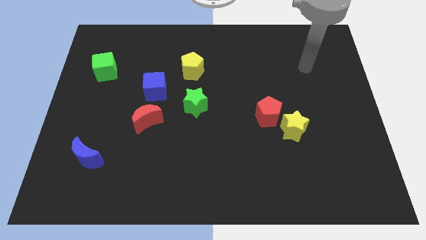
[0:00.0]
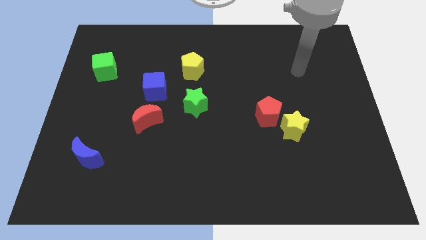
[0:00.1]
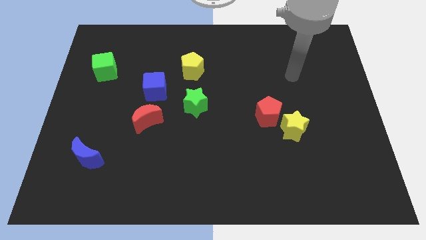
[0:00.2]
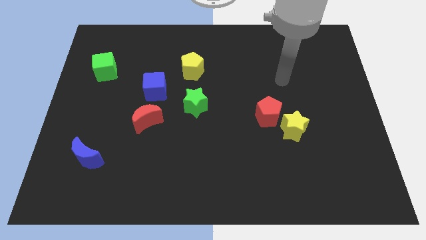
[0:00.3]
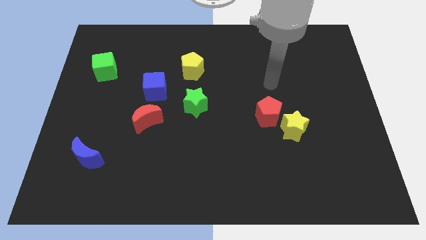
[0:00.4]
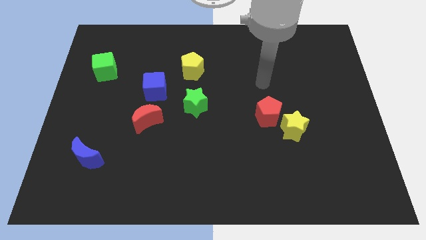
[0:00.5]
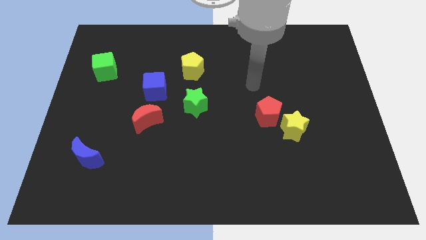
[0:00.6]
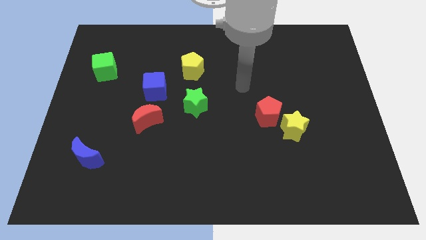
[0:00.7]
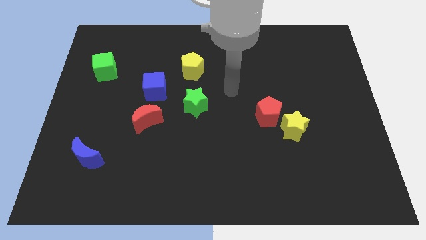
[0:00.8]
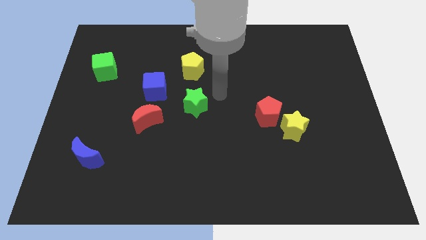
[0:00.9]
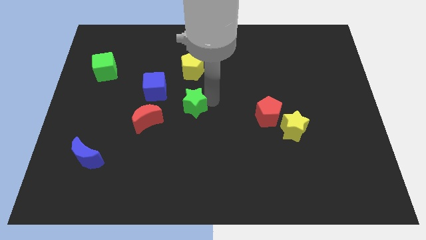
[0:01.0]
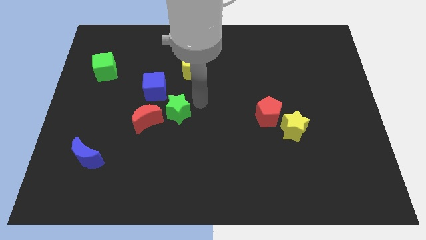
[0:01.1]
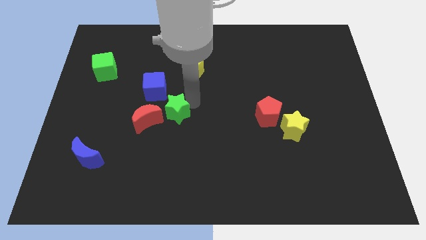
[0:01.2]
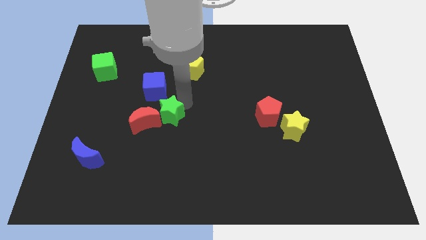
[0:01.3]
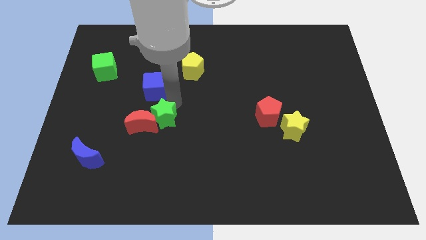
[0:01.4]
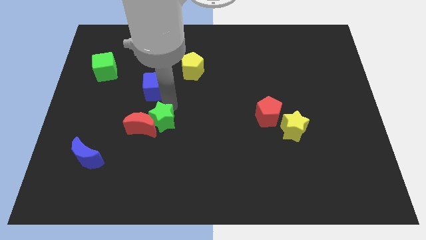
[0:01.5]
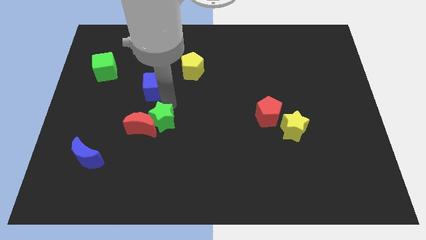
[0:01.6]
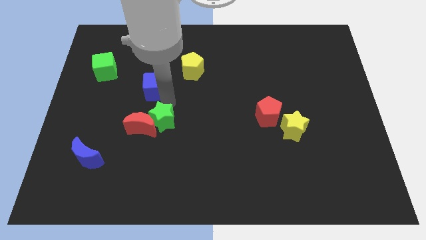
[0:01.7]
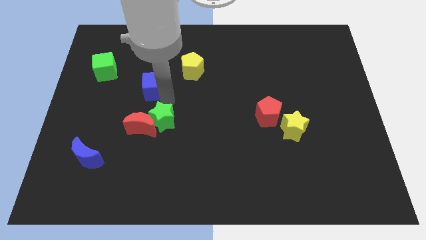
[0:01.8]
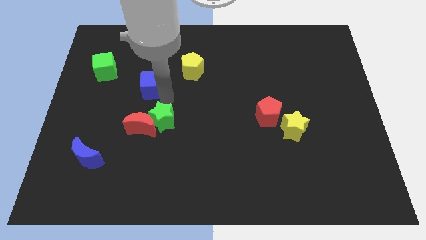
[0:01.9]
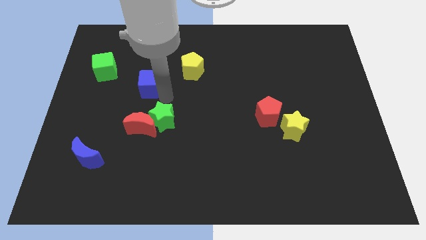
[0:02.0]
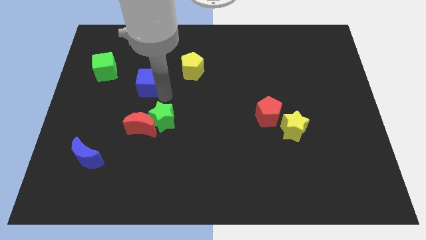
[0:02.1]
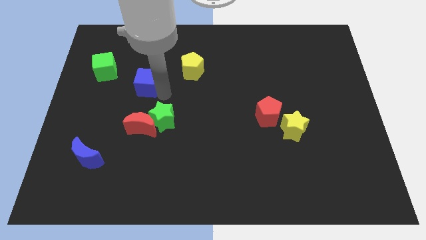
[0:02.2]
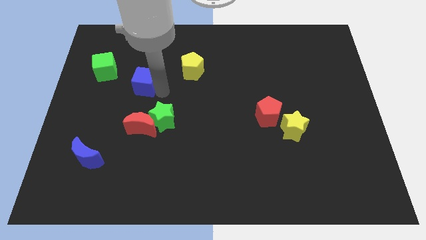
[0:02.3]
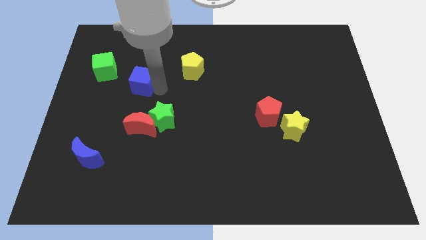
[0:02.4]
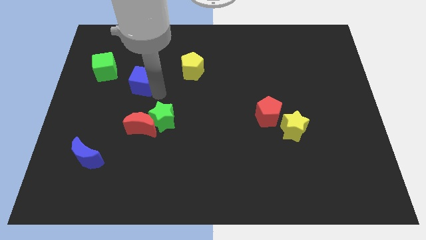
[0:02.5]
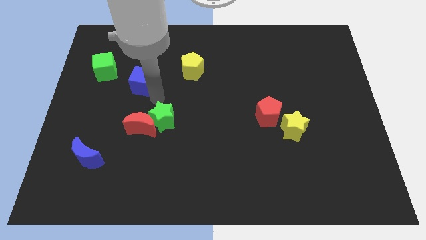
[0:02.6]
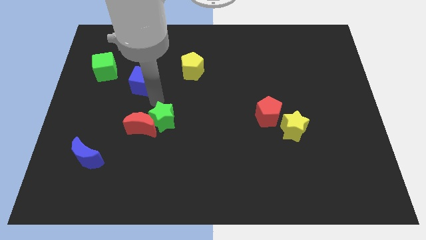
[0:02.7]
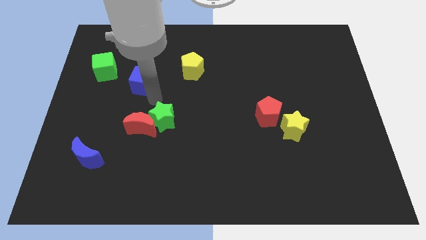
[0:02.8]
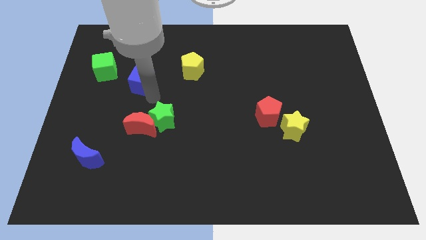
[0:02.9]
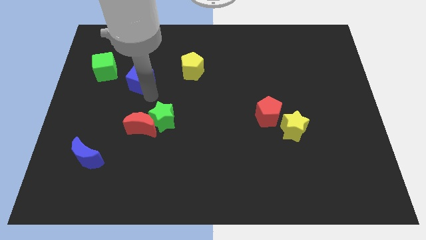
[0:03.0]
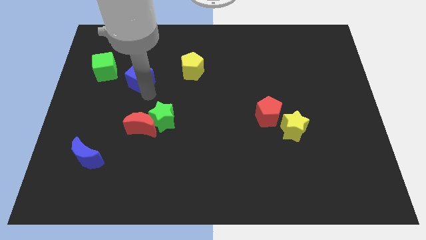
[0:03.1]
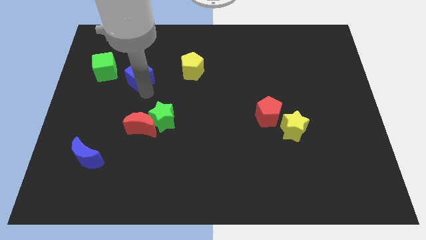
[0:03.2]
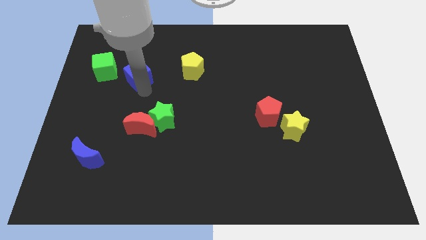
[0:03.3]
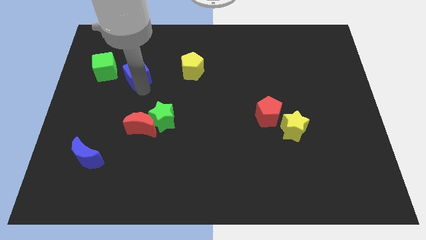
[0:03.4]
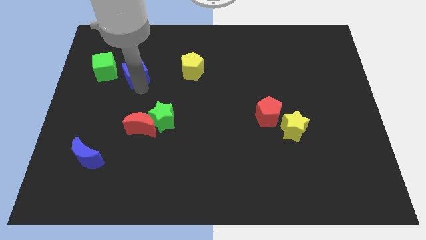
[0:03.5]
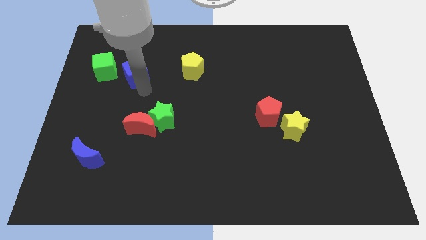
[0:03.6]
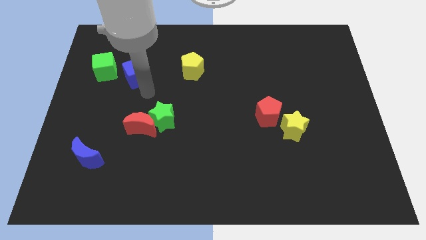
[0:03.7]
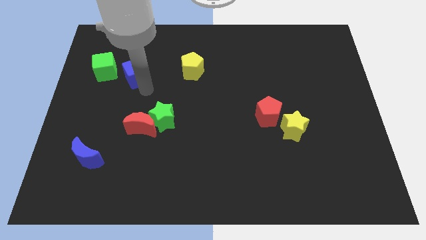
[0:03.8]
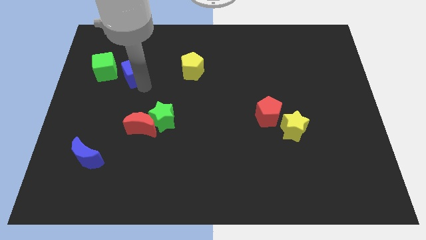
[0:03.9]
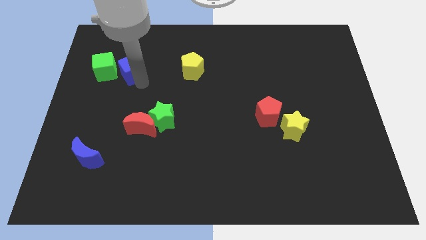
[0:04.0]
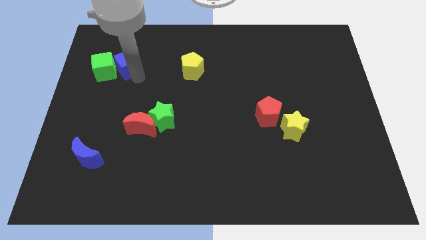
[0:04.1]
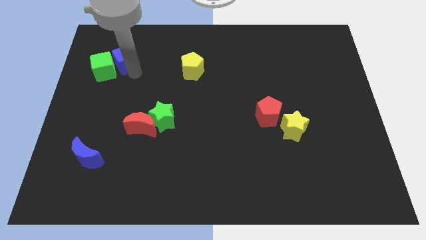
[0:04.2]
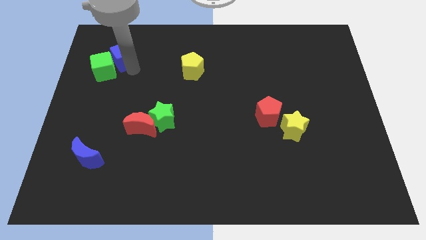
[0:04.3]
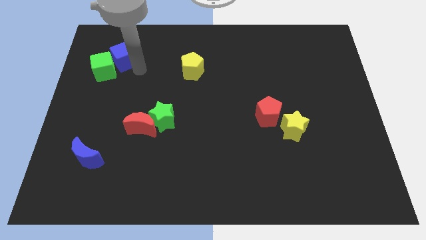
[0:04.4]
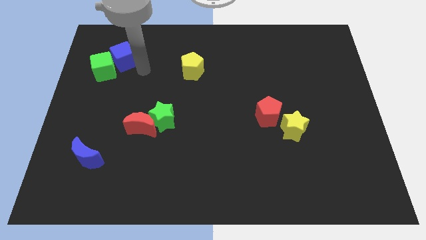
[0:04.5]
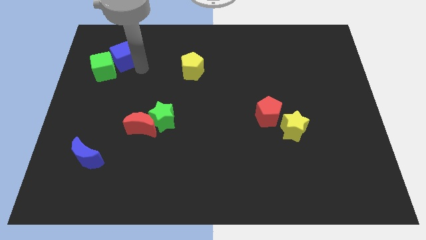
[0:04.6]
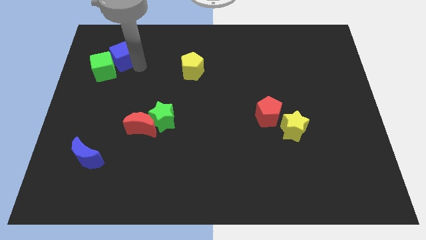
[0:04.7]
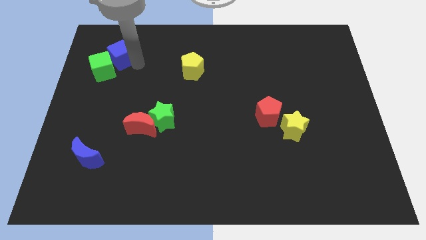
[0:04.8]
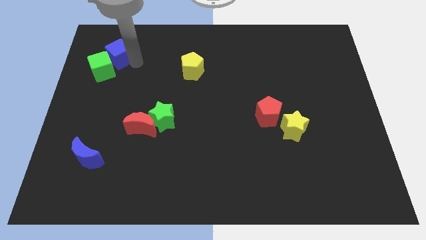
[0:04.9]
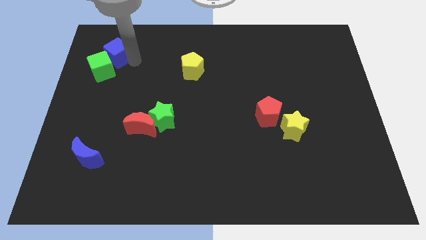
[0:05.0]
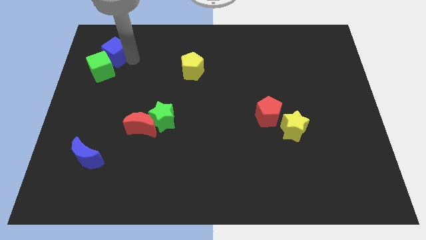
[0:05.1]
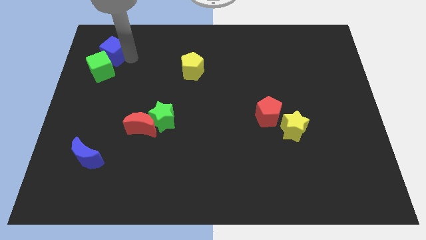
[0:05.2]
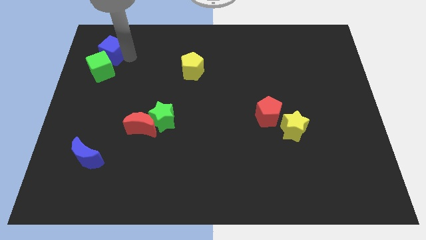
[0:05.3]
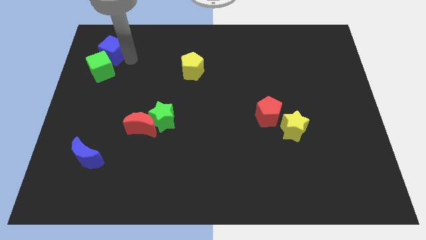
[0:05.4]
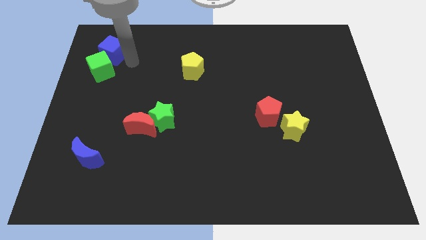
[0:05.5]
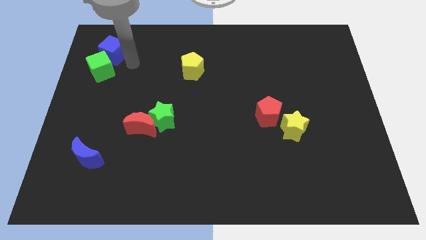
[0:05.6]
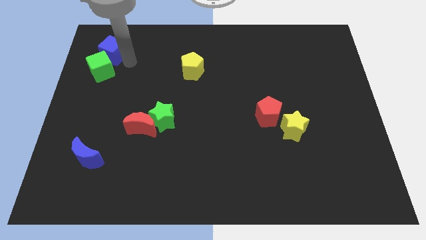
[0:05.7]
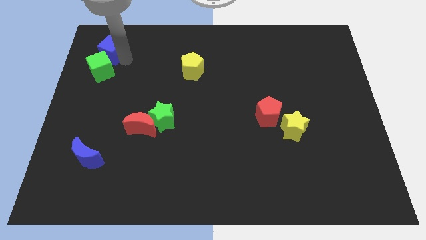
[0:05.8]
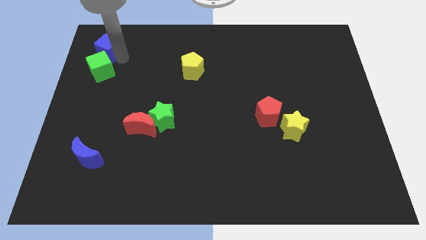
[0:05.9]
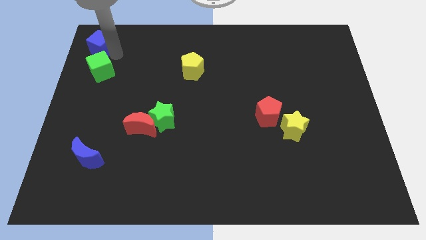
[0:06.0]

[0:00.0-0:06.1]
push the blue cube to the upper left corner
